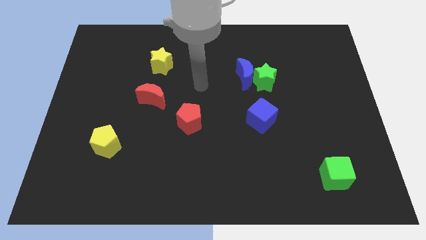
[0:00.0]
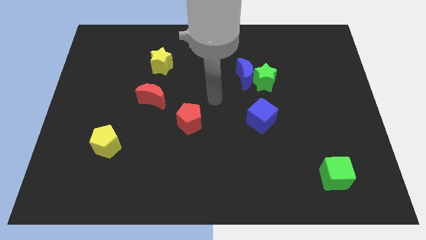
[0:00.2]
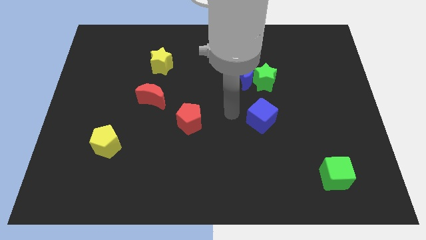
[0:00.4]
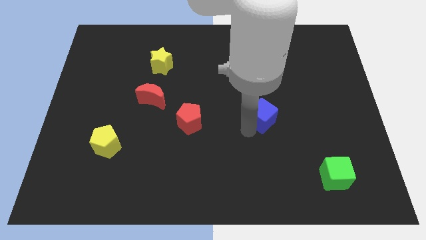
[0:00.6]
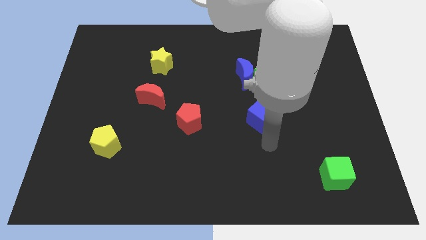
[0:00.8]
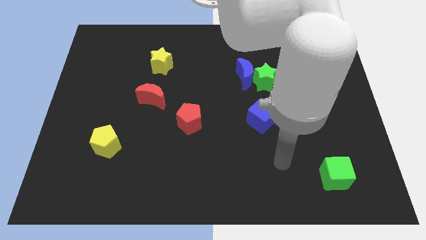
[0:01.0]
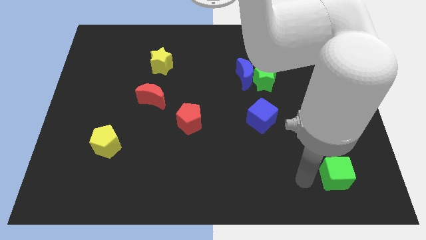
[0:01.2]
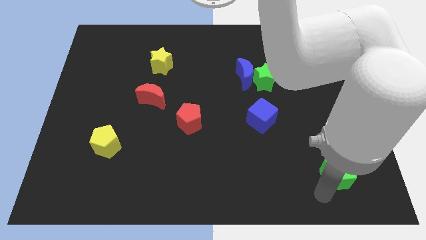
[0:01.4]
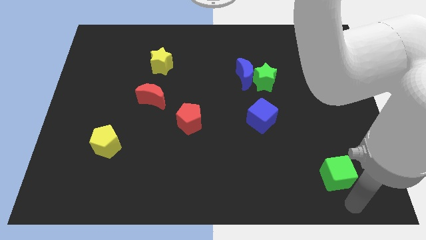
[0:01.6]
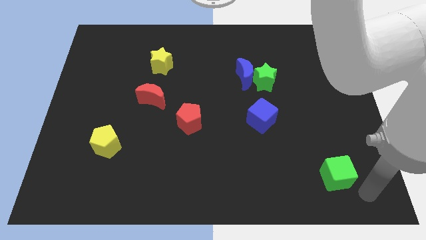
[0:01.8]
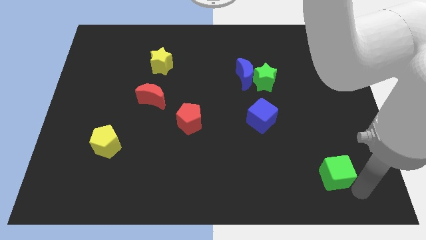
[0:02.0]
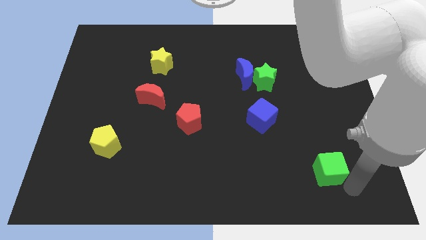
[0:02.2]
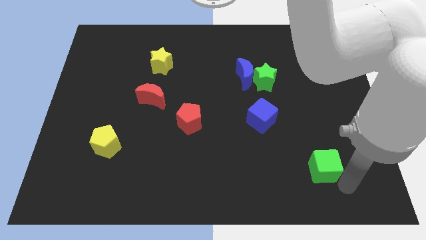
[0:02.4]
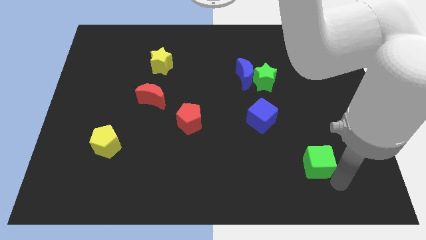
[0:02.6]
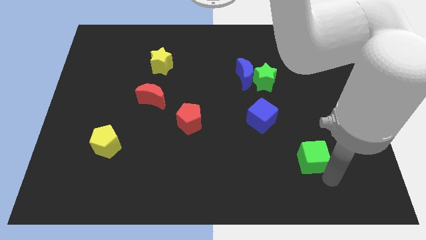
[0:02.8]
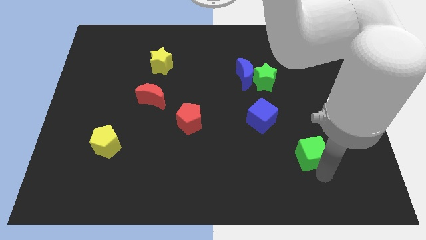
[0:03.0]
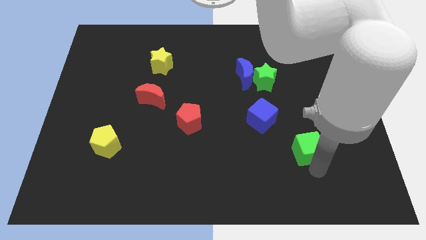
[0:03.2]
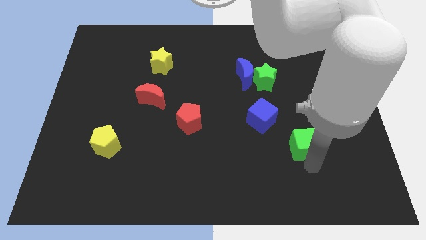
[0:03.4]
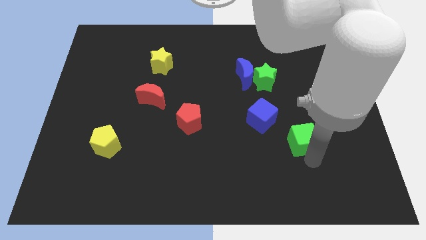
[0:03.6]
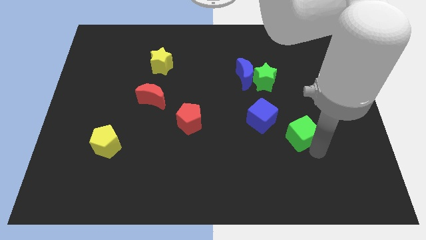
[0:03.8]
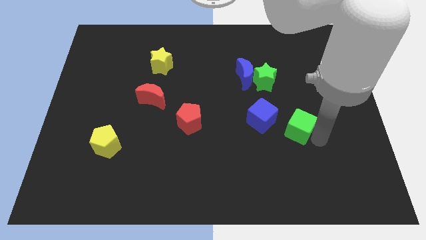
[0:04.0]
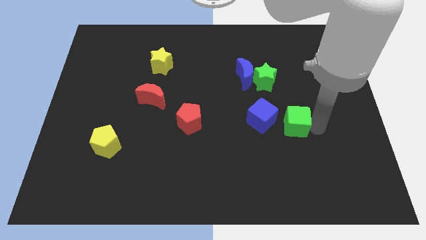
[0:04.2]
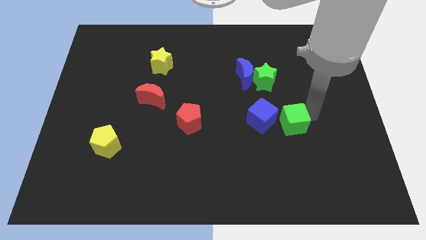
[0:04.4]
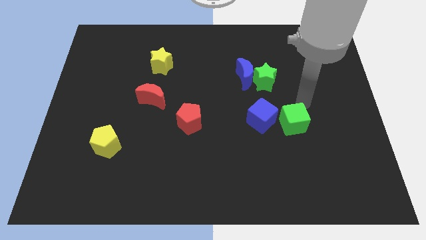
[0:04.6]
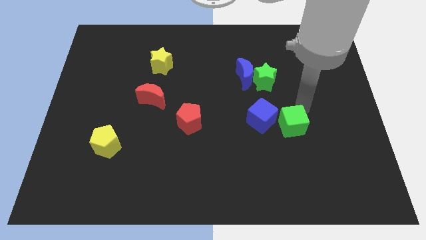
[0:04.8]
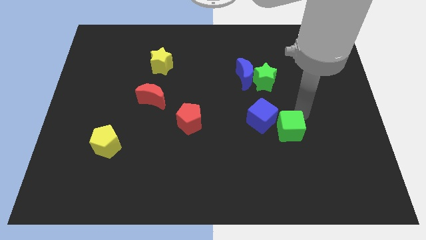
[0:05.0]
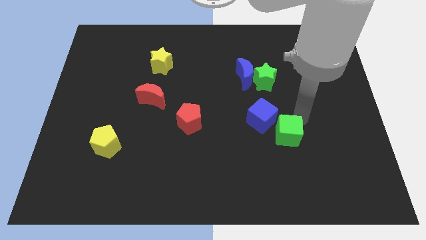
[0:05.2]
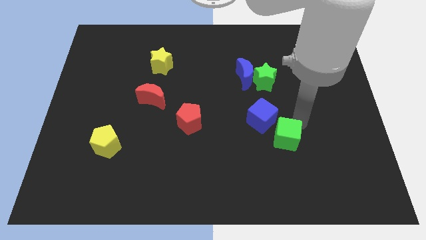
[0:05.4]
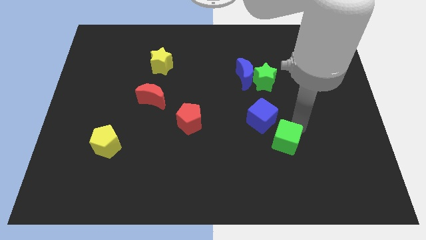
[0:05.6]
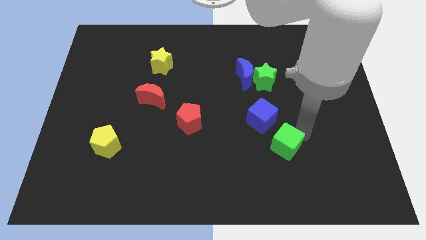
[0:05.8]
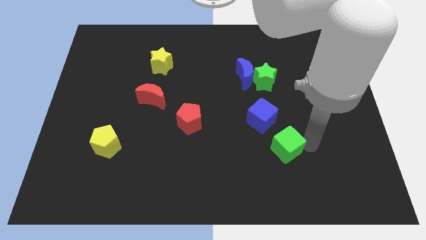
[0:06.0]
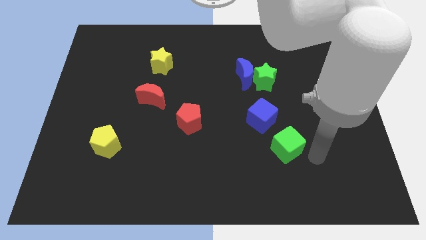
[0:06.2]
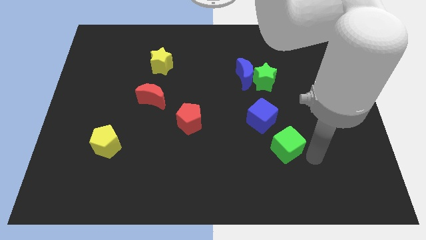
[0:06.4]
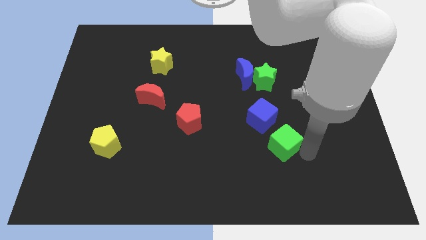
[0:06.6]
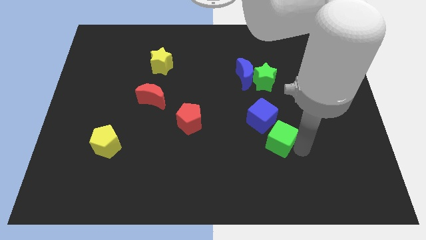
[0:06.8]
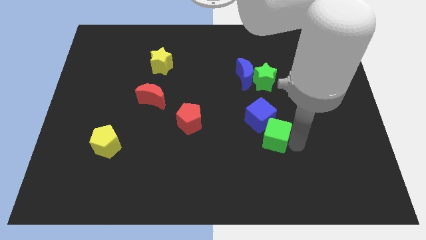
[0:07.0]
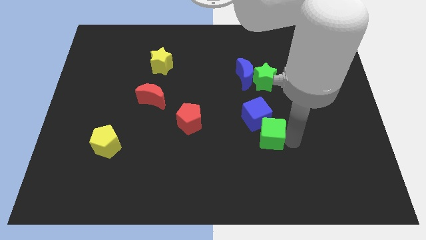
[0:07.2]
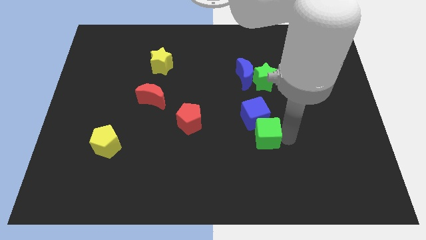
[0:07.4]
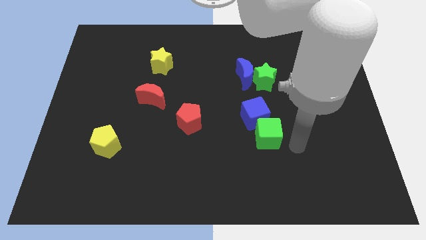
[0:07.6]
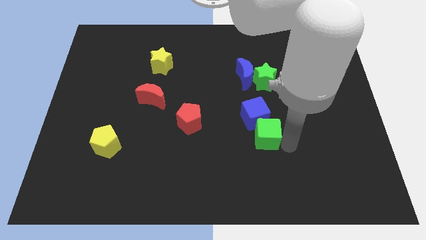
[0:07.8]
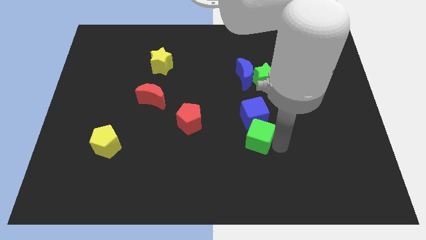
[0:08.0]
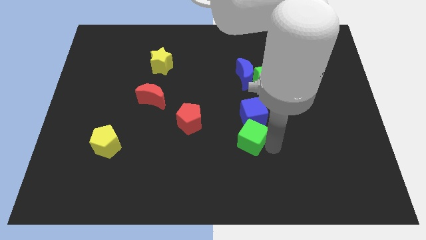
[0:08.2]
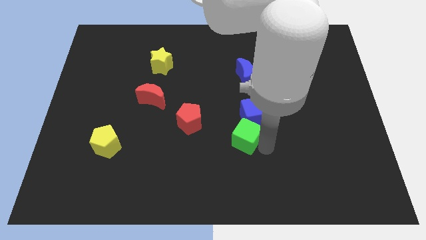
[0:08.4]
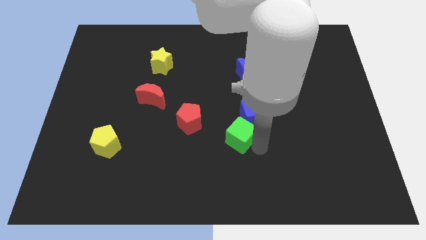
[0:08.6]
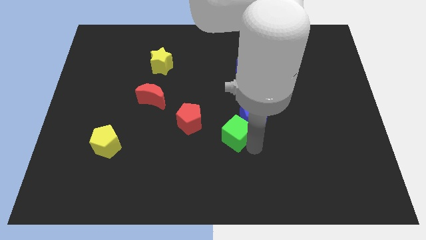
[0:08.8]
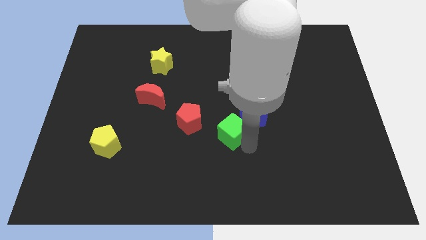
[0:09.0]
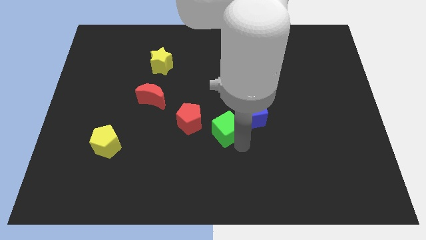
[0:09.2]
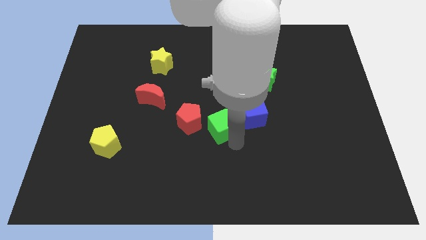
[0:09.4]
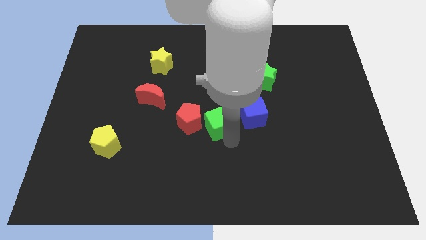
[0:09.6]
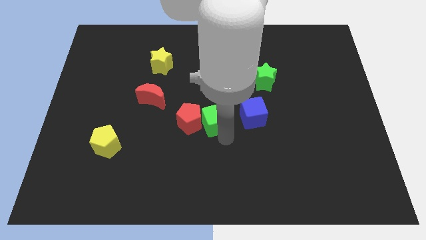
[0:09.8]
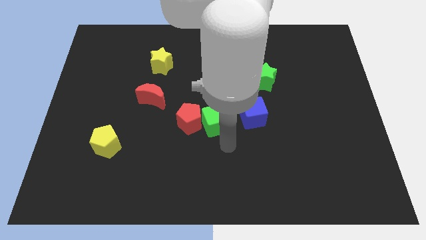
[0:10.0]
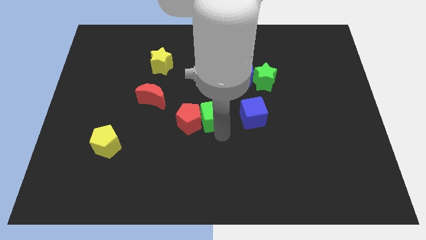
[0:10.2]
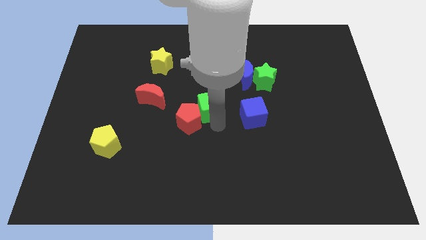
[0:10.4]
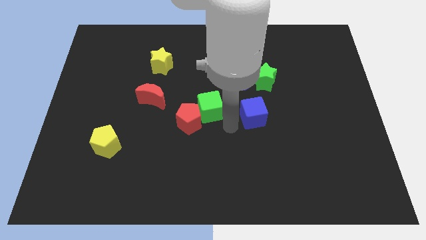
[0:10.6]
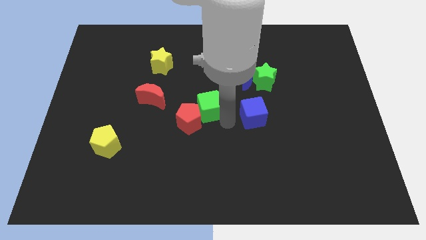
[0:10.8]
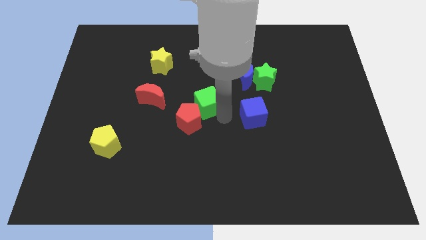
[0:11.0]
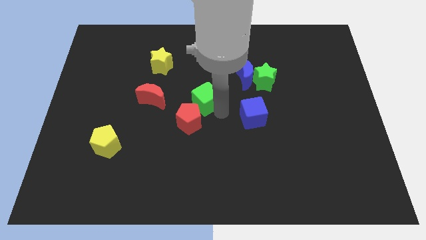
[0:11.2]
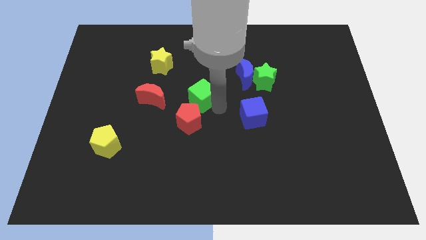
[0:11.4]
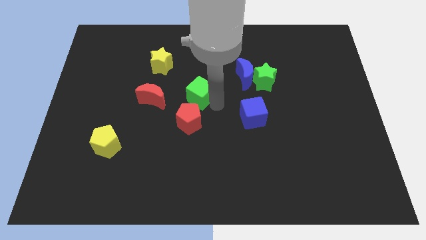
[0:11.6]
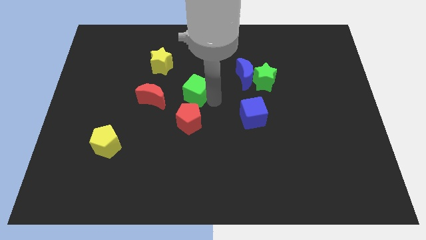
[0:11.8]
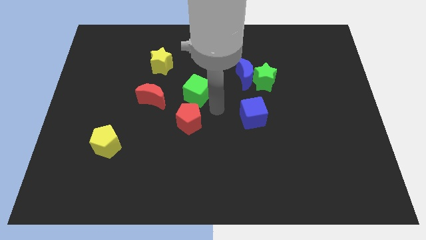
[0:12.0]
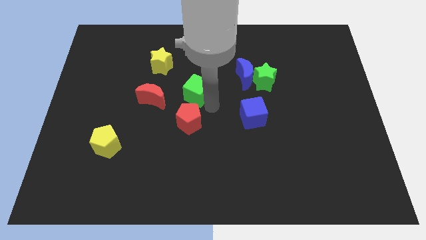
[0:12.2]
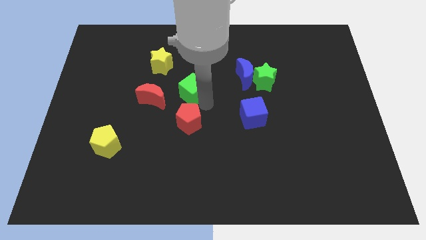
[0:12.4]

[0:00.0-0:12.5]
put the green cube diagonally down and to the right of the yellow star

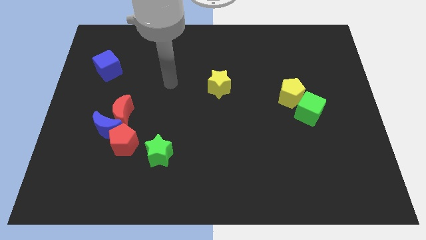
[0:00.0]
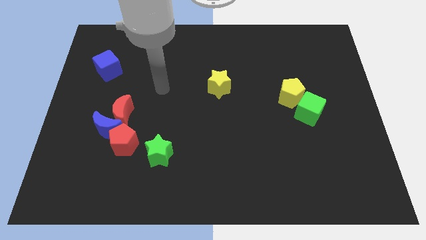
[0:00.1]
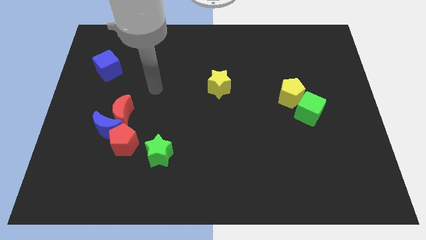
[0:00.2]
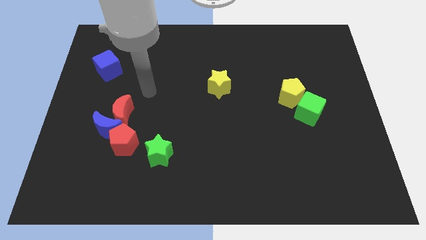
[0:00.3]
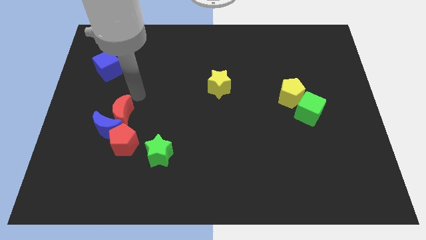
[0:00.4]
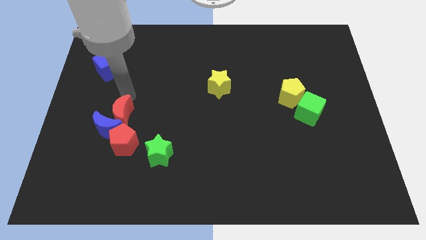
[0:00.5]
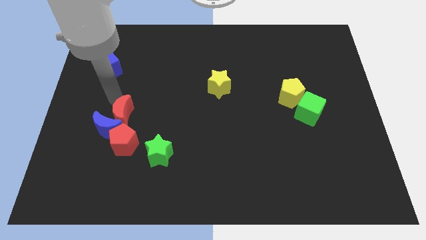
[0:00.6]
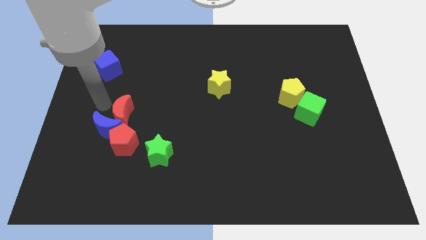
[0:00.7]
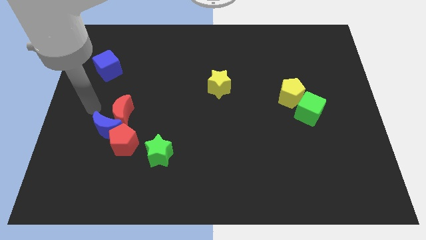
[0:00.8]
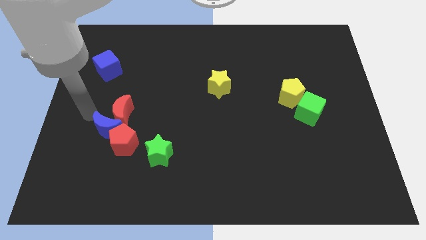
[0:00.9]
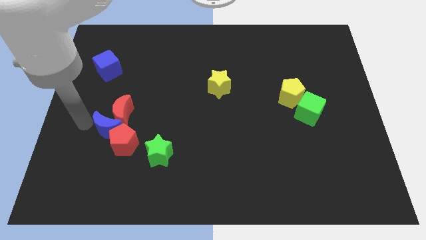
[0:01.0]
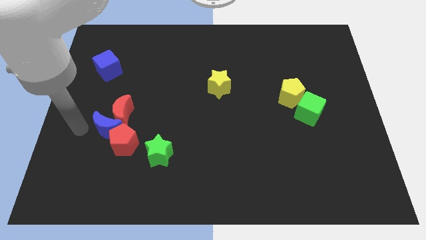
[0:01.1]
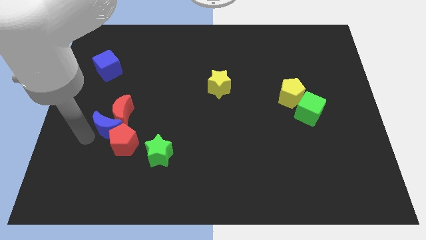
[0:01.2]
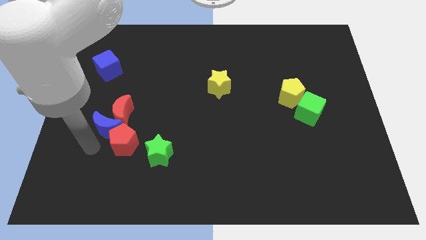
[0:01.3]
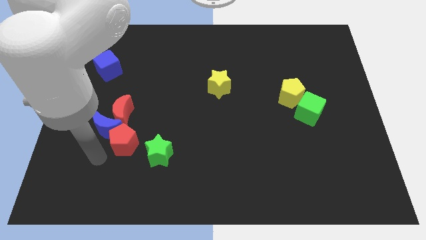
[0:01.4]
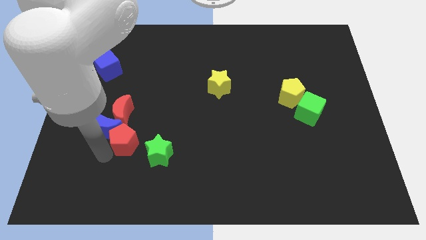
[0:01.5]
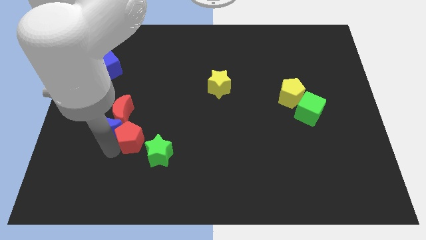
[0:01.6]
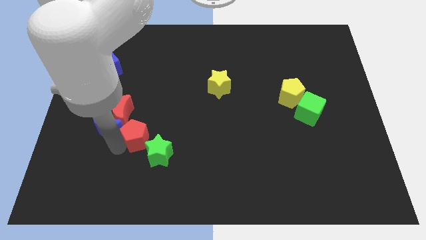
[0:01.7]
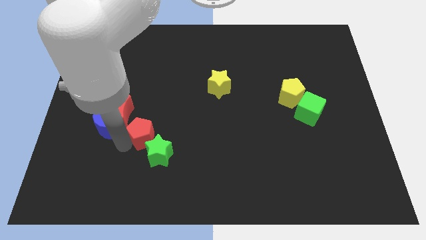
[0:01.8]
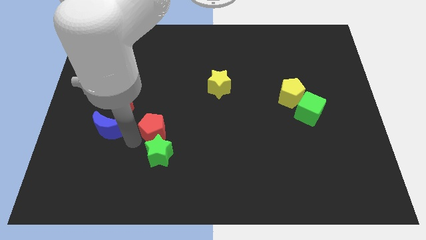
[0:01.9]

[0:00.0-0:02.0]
slide the red pentagon just right of the red moon
